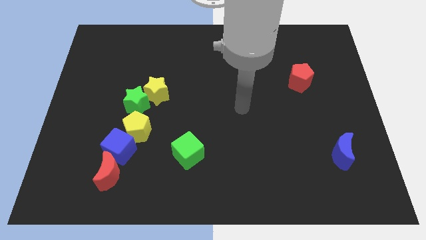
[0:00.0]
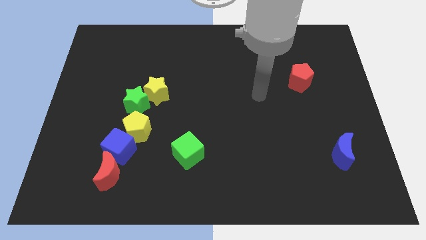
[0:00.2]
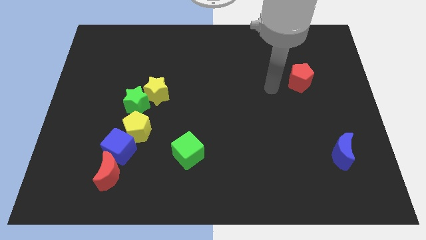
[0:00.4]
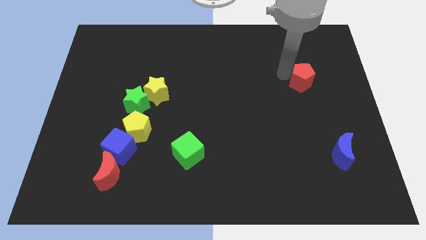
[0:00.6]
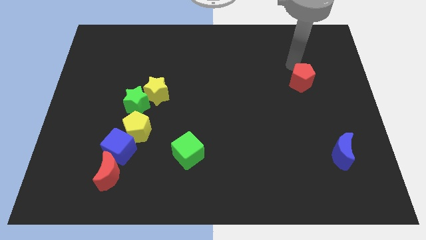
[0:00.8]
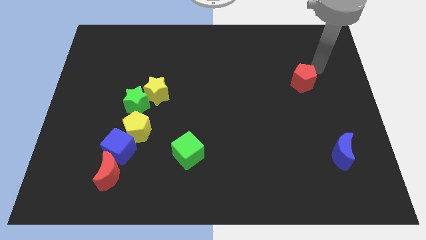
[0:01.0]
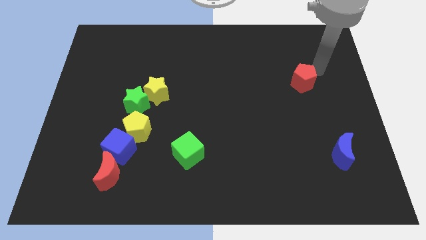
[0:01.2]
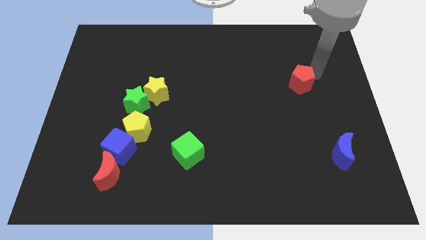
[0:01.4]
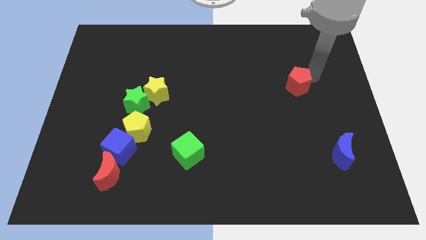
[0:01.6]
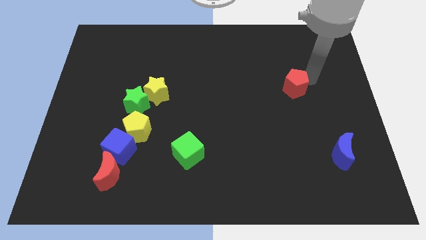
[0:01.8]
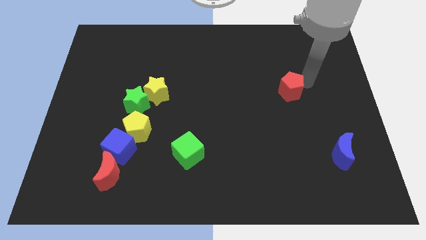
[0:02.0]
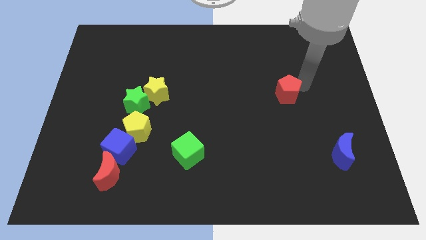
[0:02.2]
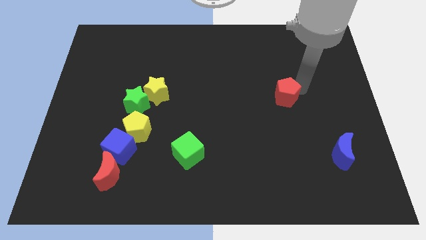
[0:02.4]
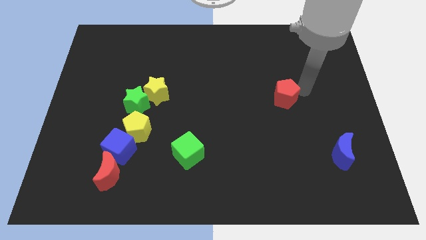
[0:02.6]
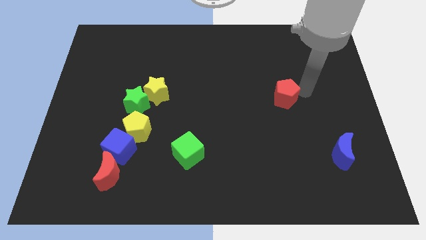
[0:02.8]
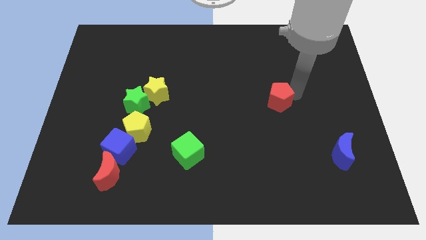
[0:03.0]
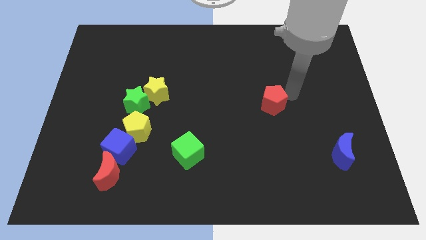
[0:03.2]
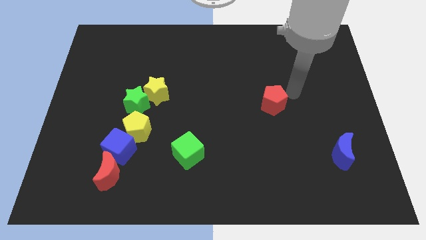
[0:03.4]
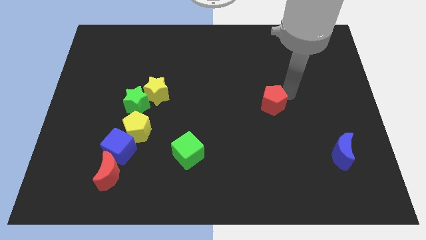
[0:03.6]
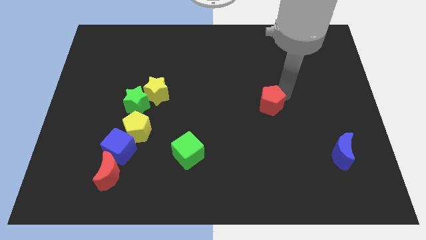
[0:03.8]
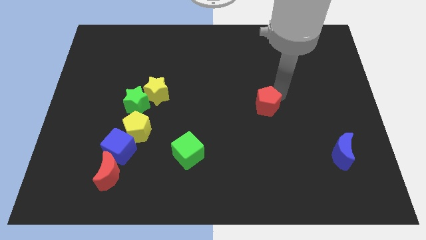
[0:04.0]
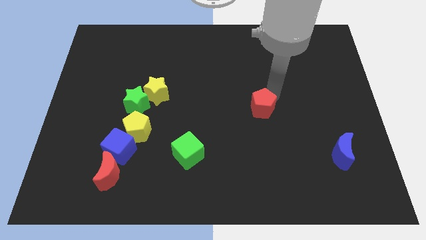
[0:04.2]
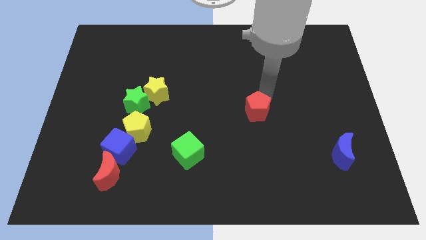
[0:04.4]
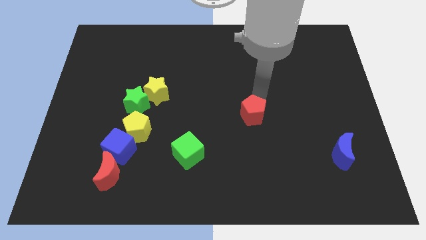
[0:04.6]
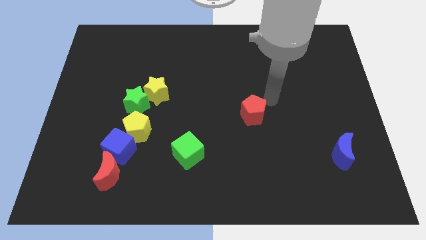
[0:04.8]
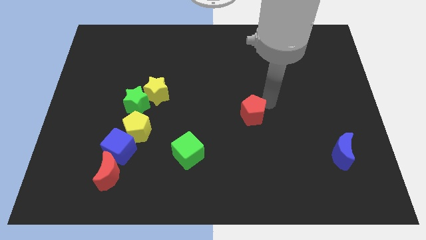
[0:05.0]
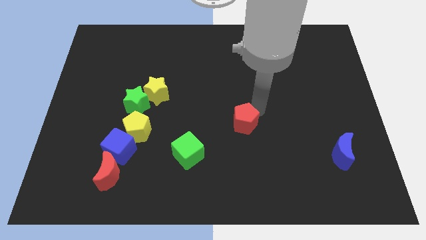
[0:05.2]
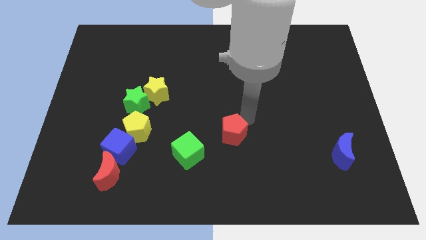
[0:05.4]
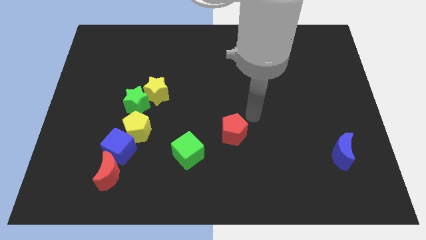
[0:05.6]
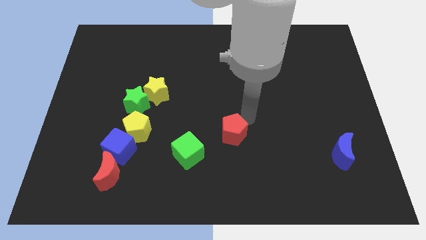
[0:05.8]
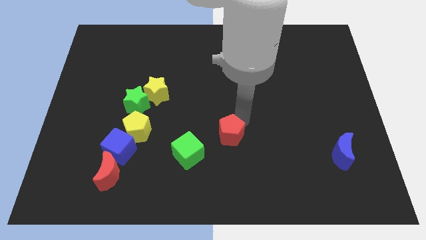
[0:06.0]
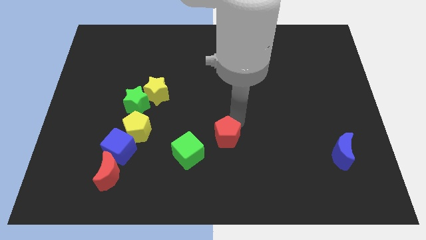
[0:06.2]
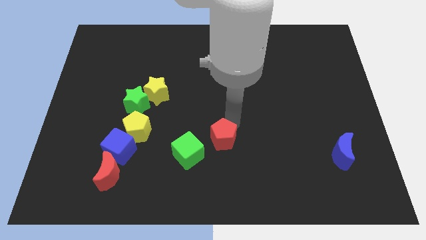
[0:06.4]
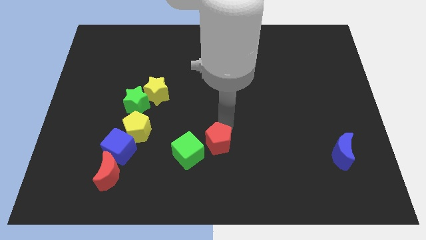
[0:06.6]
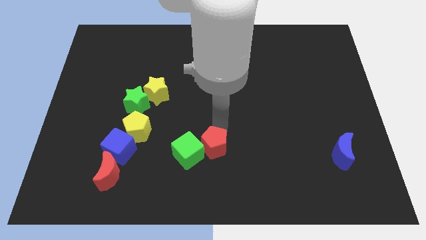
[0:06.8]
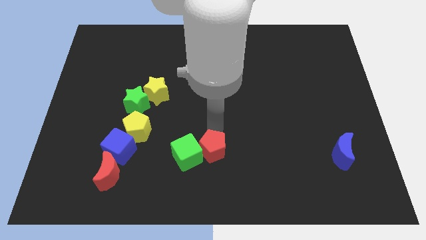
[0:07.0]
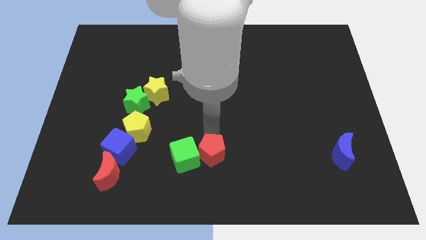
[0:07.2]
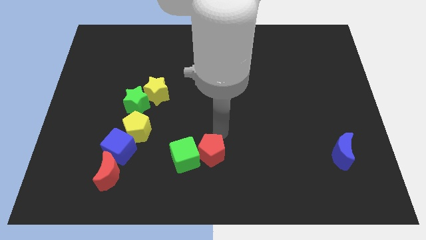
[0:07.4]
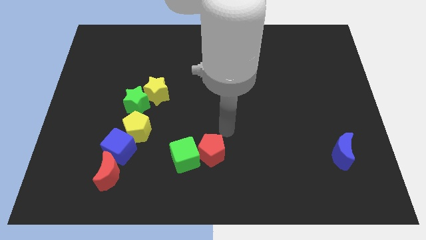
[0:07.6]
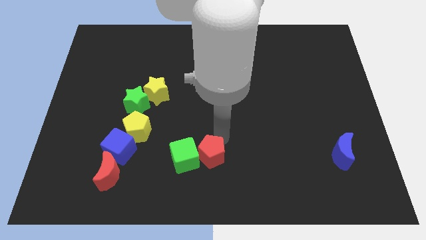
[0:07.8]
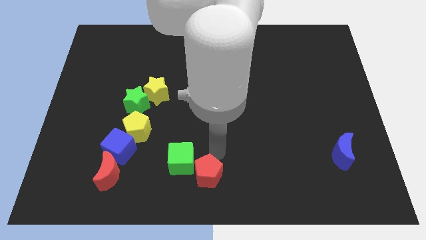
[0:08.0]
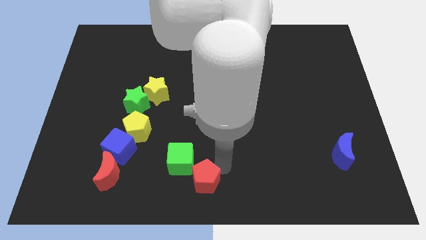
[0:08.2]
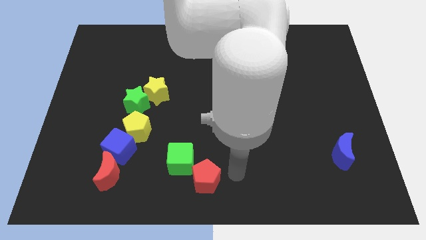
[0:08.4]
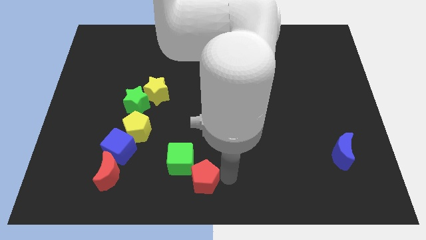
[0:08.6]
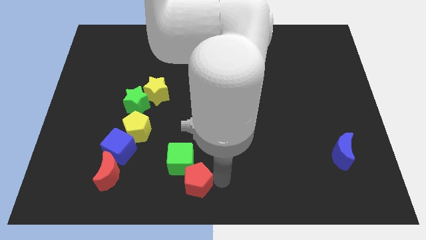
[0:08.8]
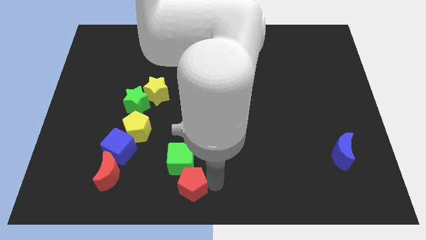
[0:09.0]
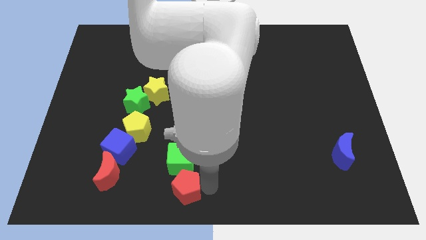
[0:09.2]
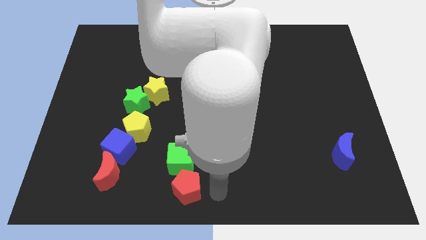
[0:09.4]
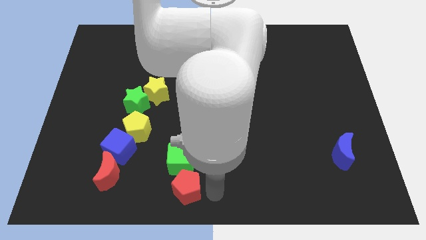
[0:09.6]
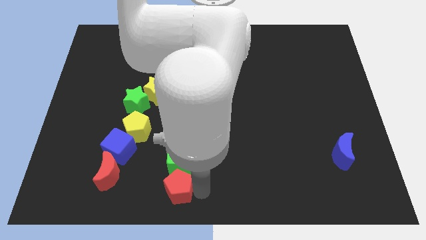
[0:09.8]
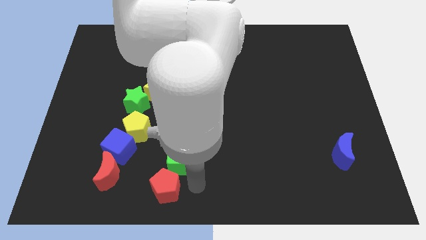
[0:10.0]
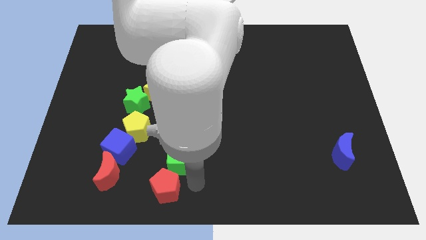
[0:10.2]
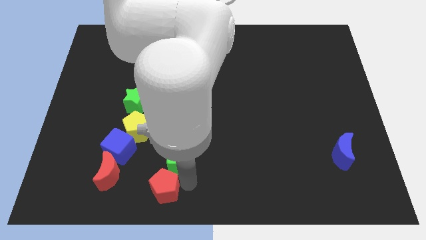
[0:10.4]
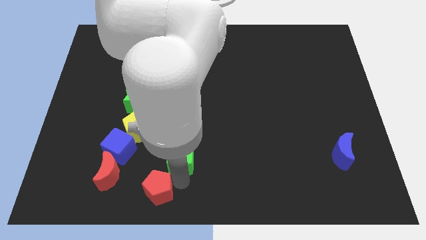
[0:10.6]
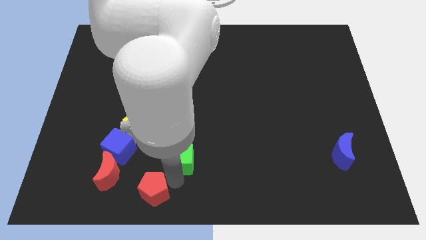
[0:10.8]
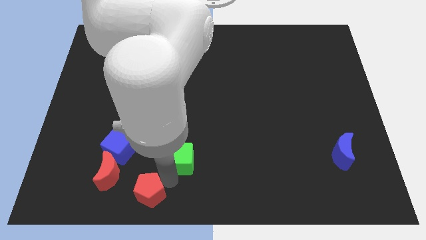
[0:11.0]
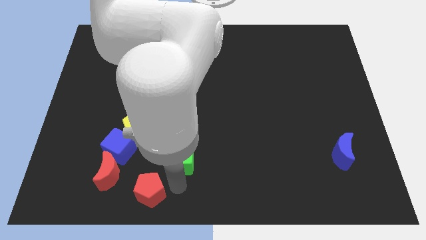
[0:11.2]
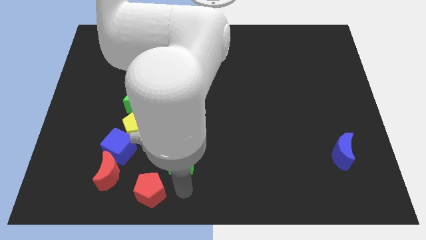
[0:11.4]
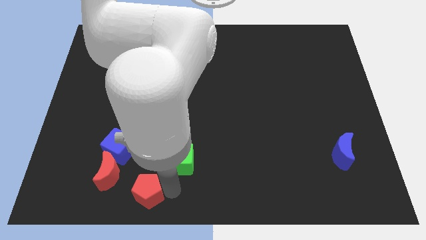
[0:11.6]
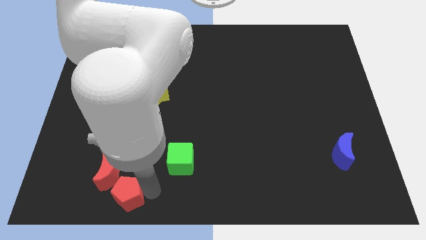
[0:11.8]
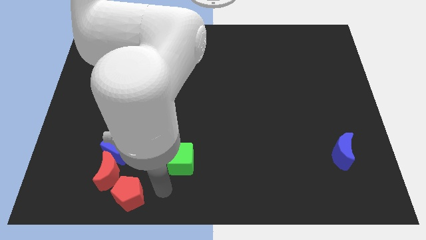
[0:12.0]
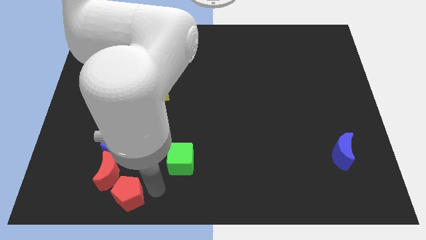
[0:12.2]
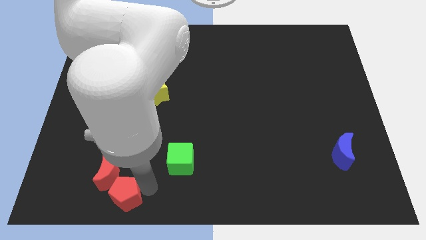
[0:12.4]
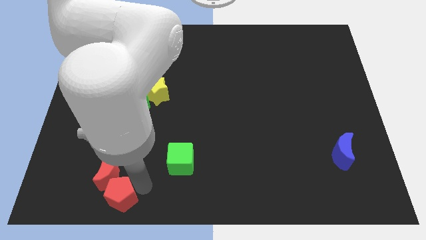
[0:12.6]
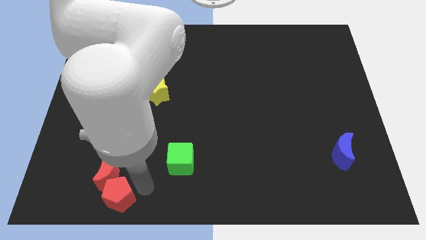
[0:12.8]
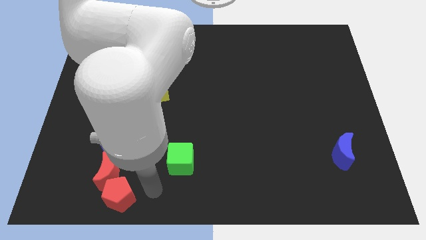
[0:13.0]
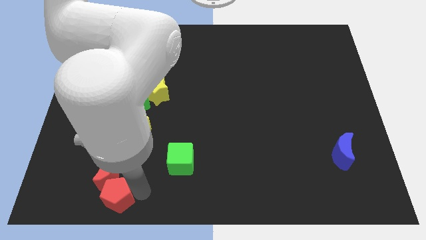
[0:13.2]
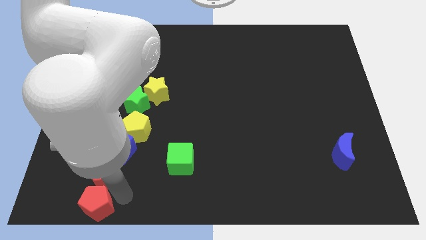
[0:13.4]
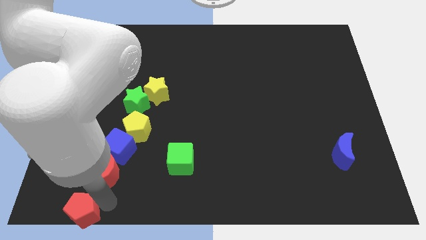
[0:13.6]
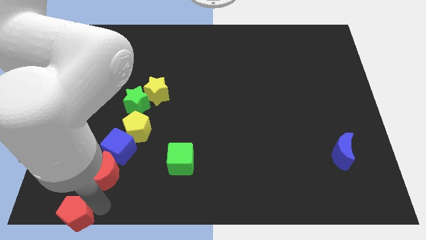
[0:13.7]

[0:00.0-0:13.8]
move the red pentagon to the lower left corner
